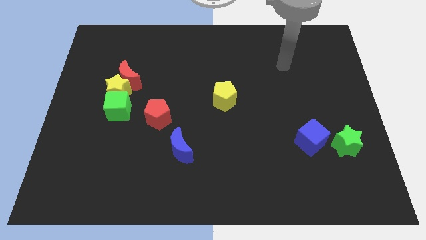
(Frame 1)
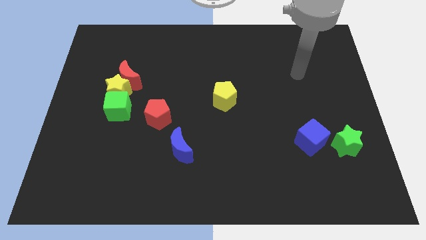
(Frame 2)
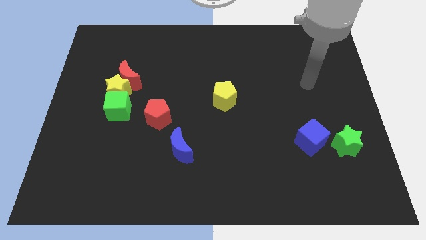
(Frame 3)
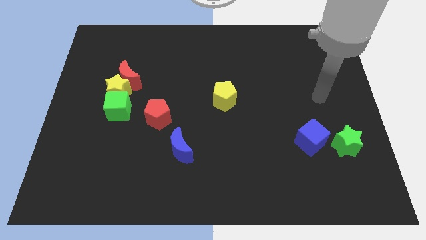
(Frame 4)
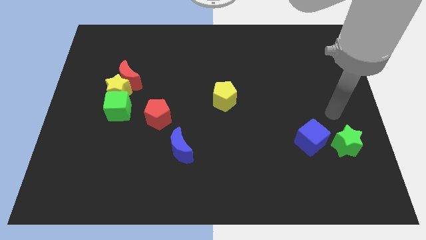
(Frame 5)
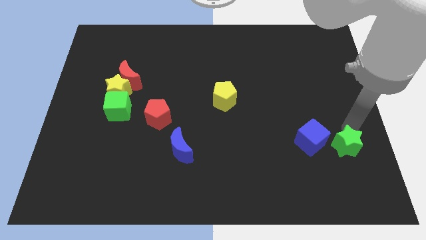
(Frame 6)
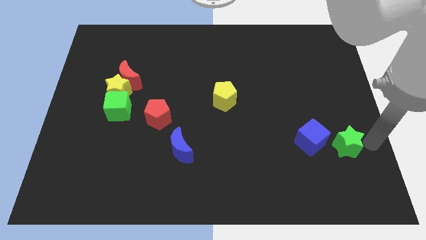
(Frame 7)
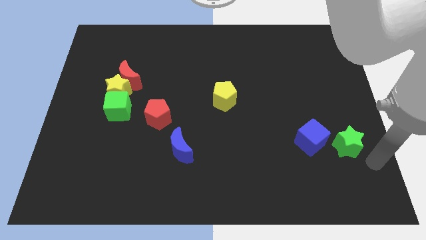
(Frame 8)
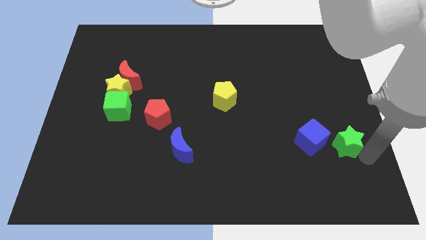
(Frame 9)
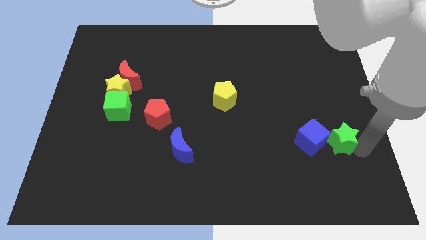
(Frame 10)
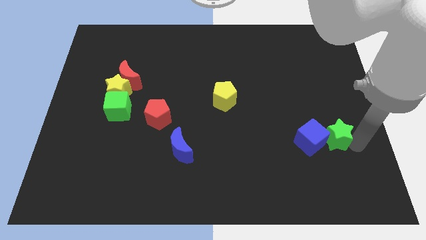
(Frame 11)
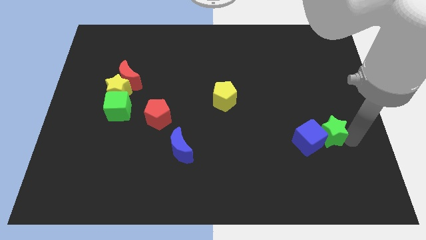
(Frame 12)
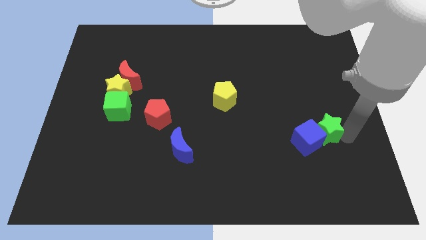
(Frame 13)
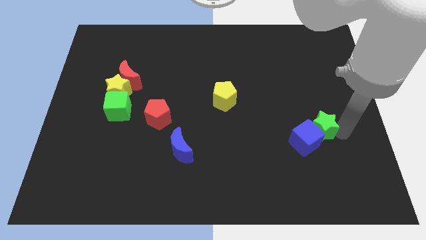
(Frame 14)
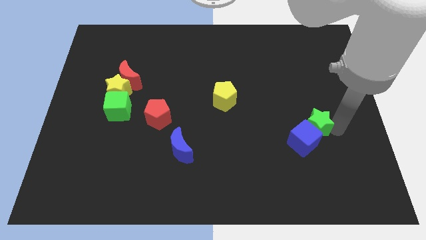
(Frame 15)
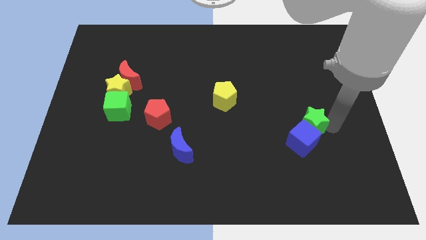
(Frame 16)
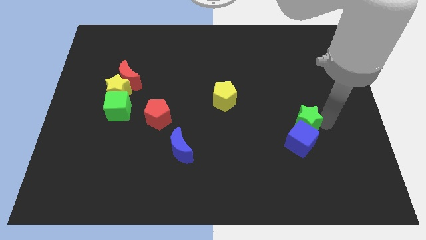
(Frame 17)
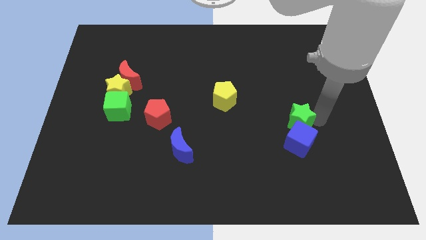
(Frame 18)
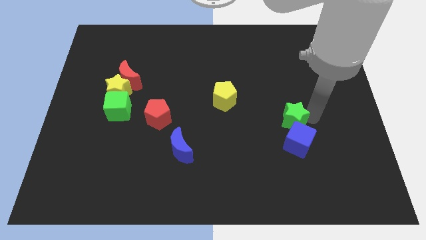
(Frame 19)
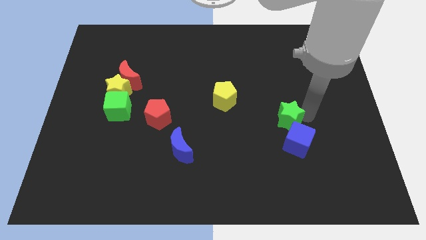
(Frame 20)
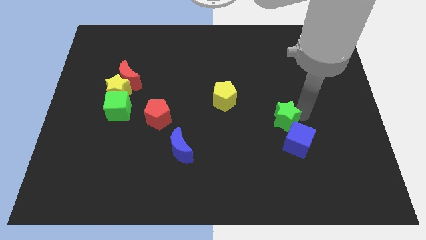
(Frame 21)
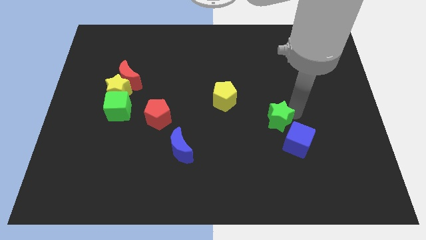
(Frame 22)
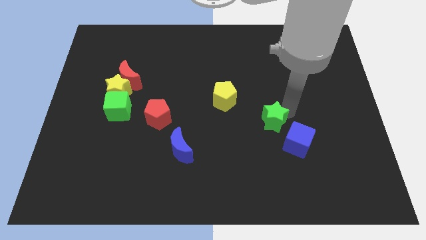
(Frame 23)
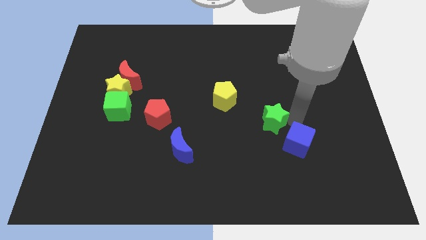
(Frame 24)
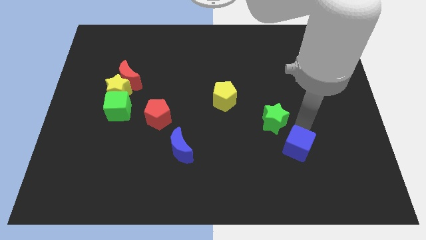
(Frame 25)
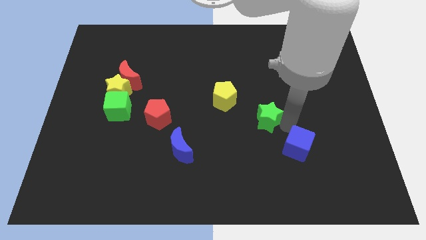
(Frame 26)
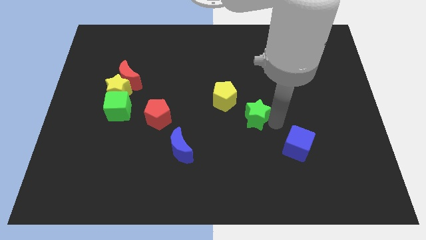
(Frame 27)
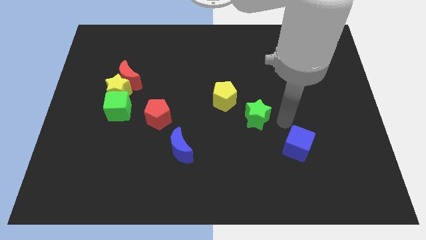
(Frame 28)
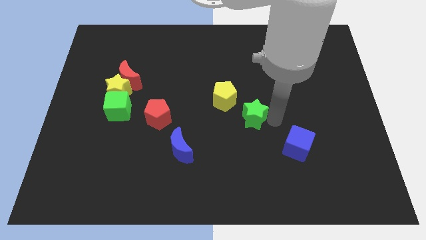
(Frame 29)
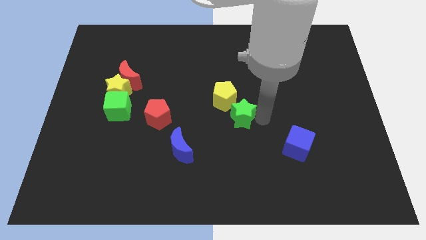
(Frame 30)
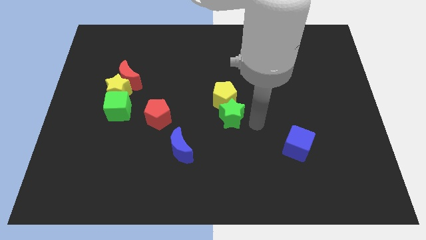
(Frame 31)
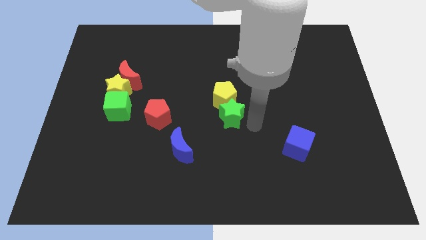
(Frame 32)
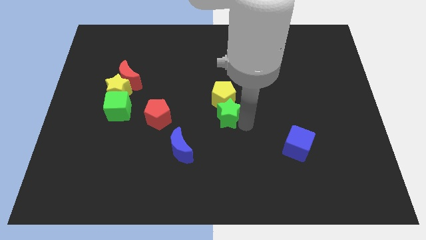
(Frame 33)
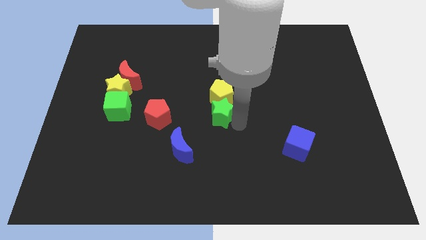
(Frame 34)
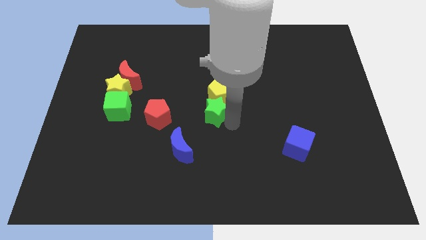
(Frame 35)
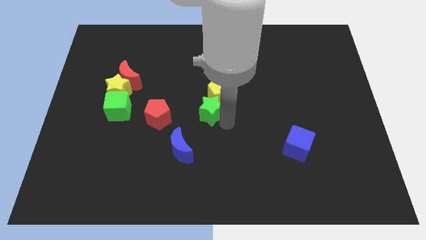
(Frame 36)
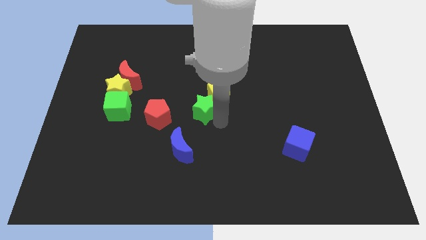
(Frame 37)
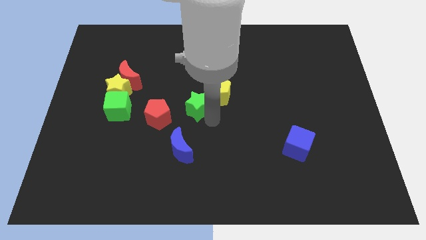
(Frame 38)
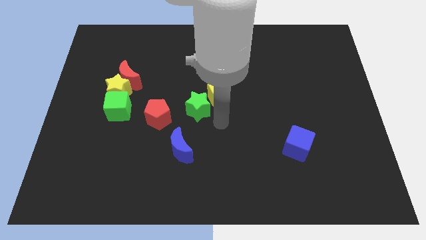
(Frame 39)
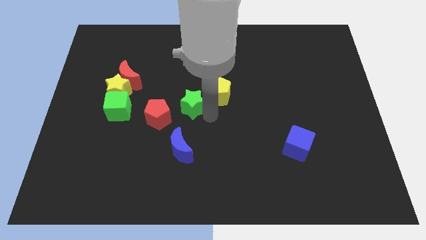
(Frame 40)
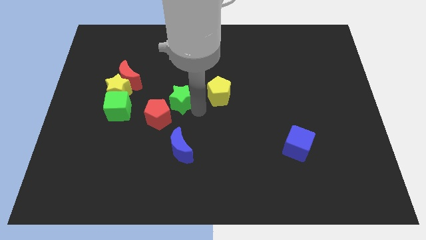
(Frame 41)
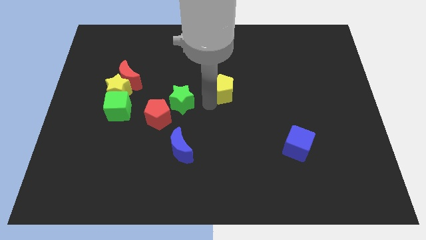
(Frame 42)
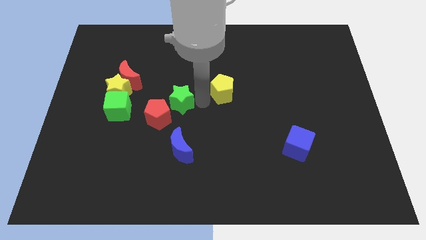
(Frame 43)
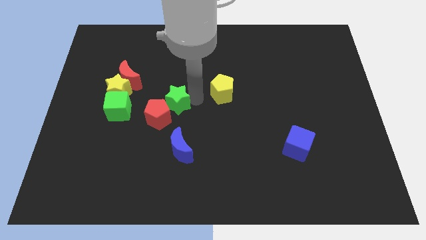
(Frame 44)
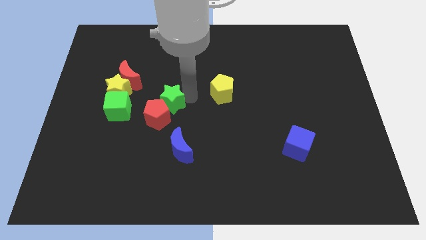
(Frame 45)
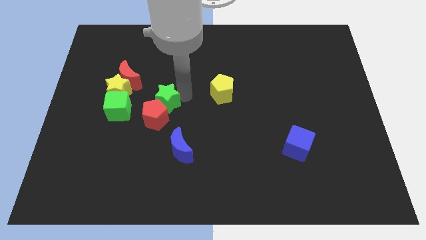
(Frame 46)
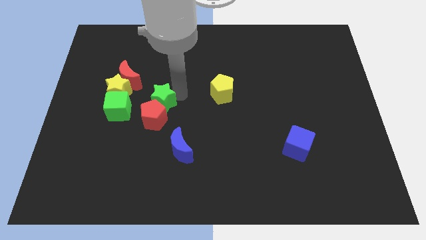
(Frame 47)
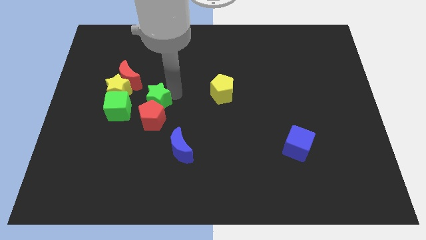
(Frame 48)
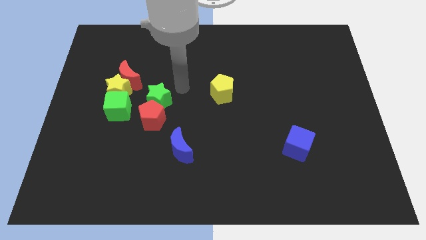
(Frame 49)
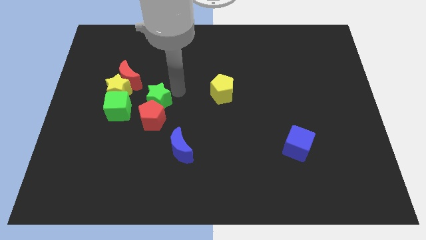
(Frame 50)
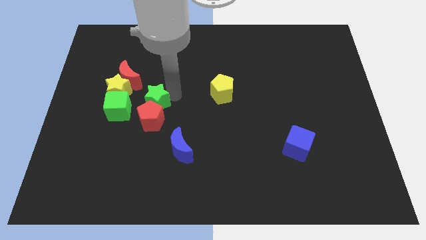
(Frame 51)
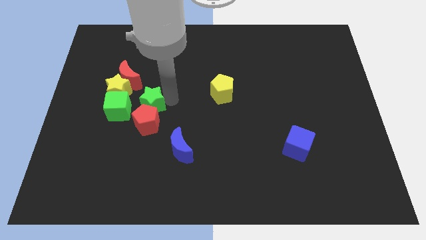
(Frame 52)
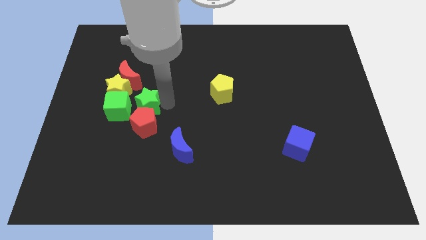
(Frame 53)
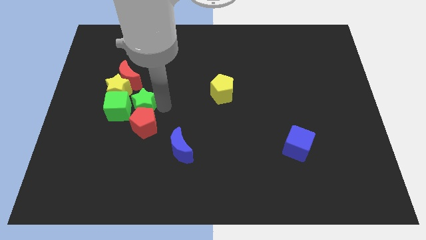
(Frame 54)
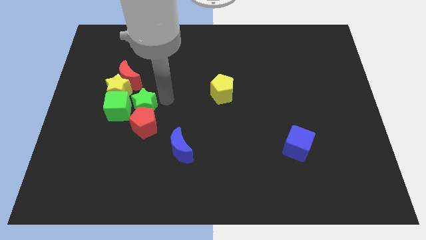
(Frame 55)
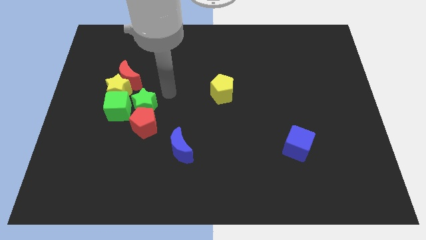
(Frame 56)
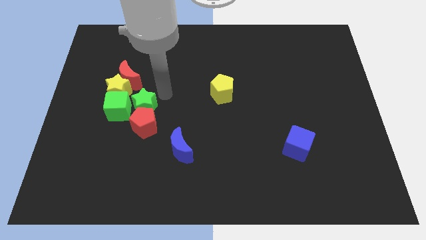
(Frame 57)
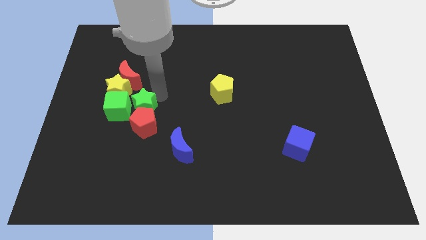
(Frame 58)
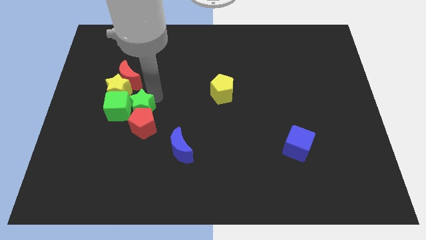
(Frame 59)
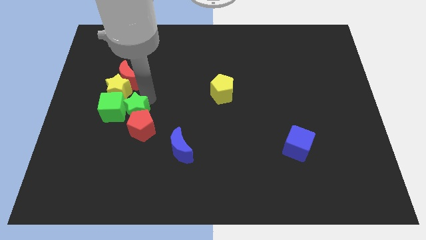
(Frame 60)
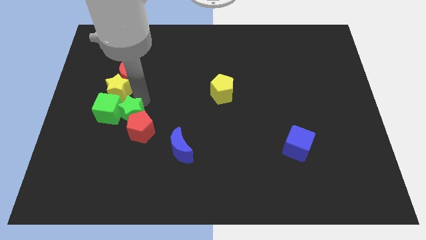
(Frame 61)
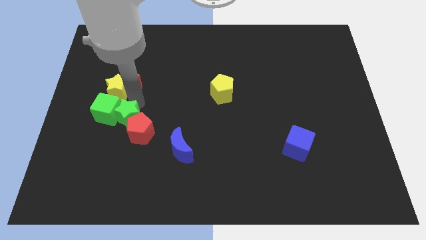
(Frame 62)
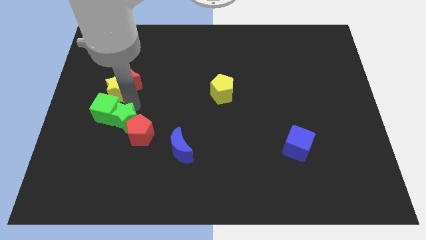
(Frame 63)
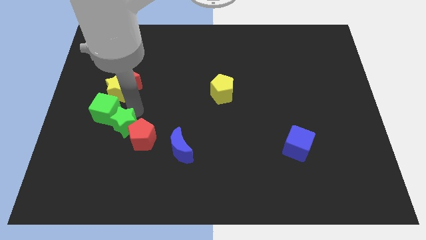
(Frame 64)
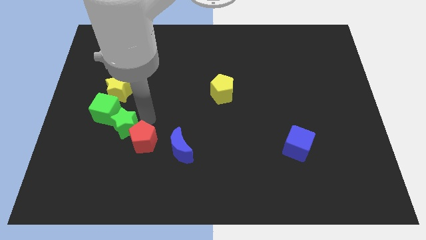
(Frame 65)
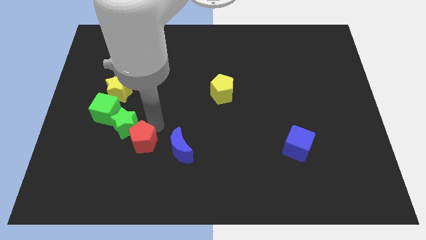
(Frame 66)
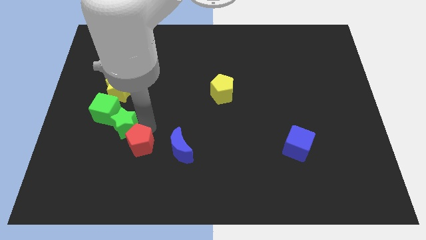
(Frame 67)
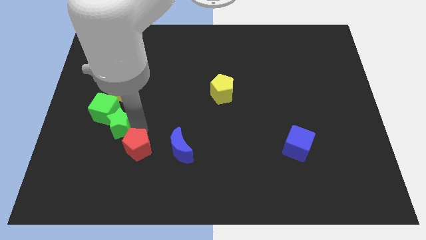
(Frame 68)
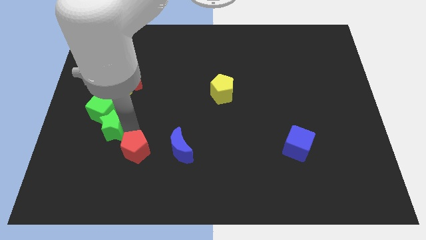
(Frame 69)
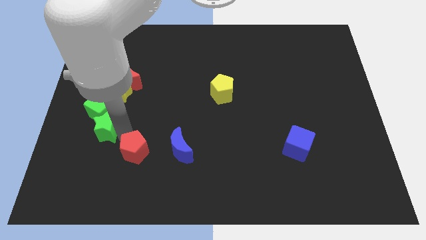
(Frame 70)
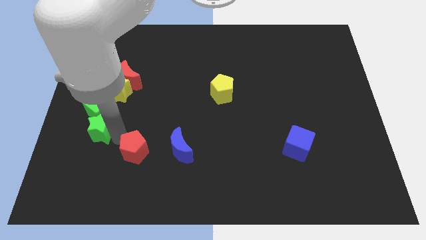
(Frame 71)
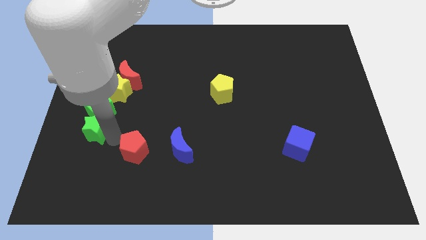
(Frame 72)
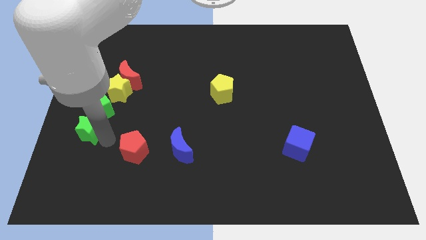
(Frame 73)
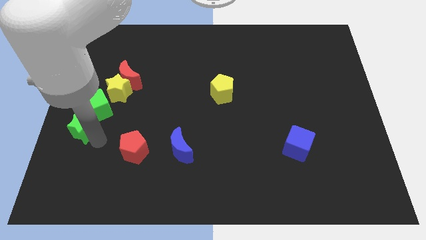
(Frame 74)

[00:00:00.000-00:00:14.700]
slide the green star to the center left

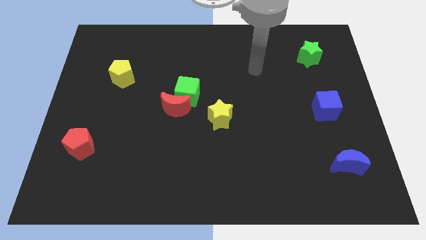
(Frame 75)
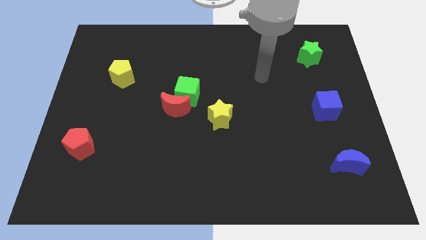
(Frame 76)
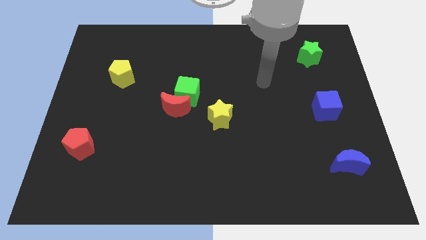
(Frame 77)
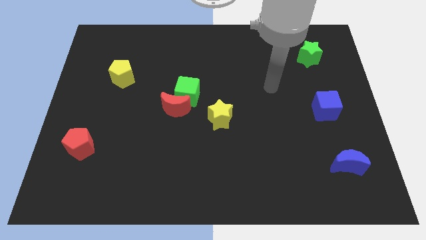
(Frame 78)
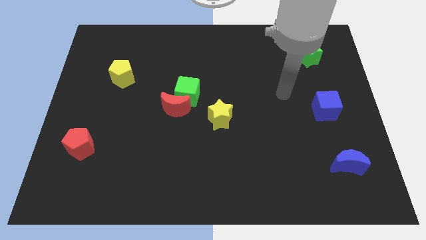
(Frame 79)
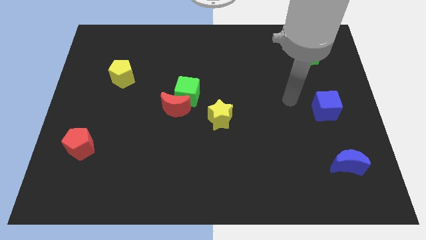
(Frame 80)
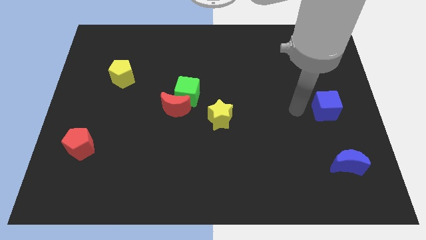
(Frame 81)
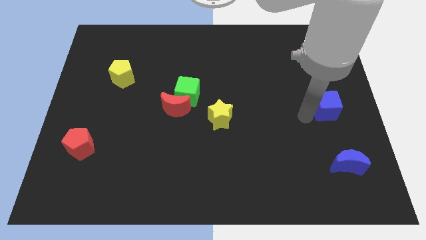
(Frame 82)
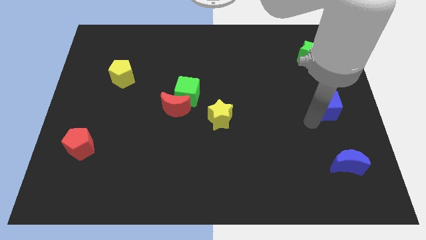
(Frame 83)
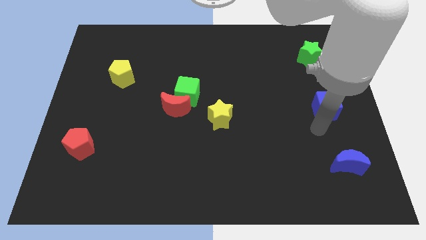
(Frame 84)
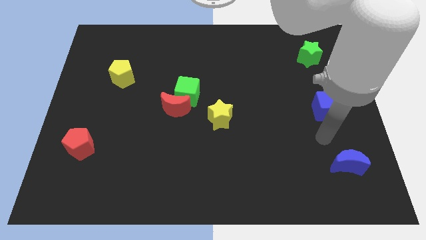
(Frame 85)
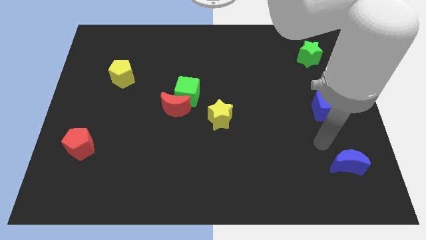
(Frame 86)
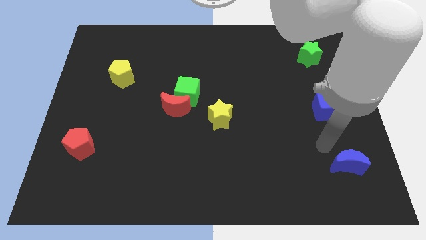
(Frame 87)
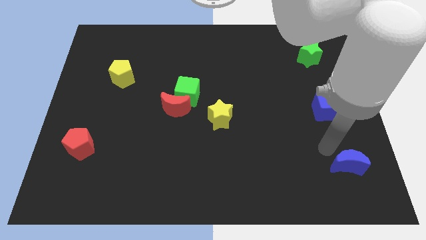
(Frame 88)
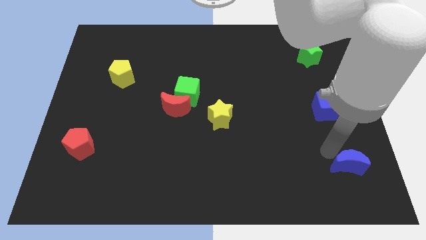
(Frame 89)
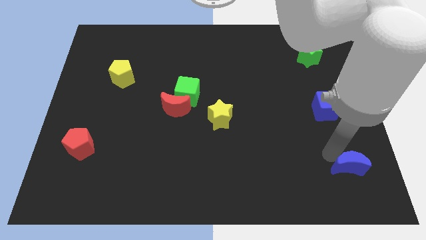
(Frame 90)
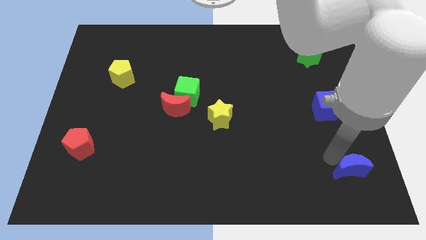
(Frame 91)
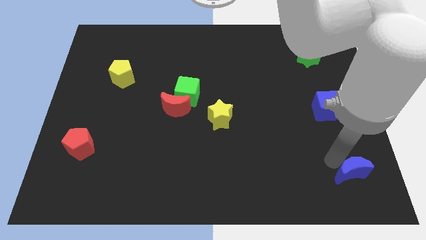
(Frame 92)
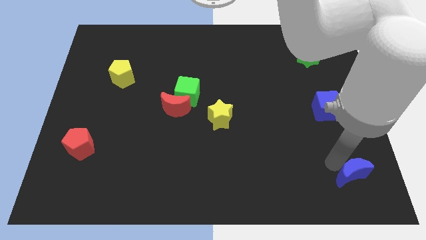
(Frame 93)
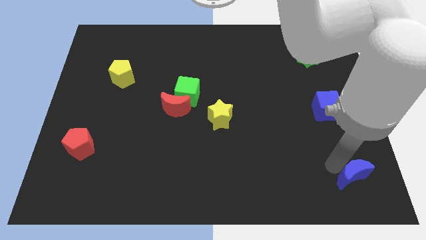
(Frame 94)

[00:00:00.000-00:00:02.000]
slide the blue moon to the lower right corner
